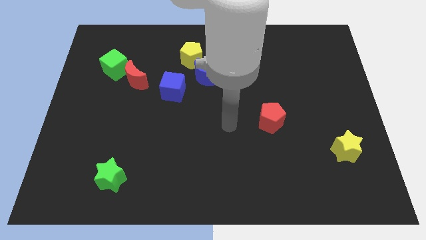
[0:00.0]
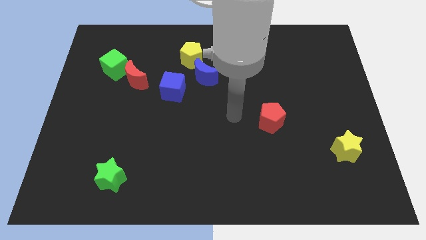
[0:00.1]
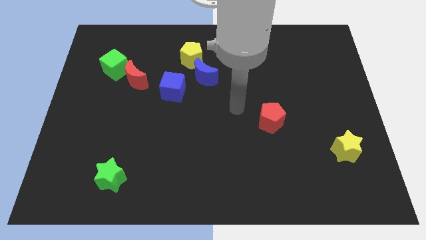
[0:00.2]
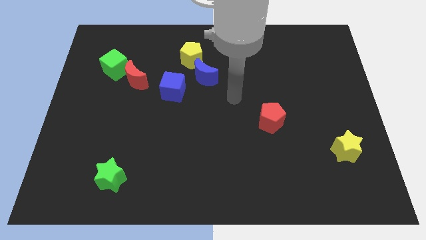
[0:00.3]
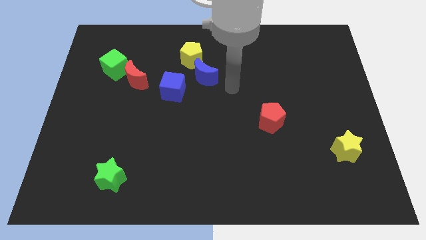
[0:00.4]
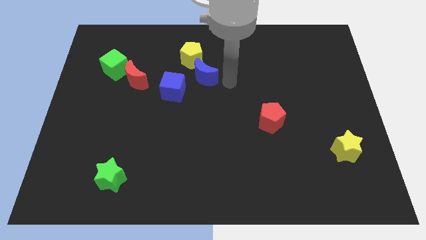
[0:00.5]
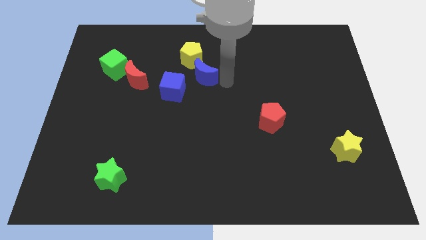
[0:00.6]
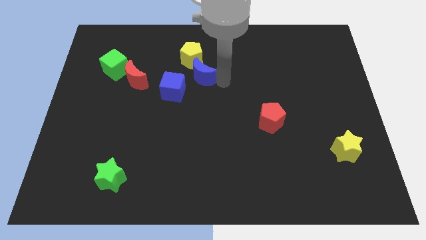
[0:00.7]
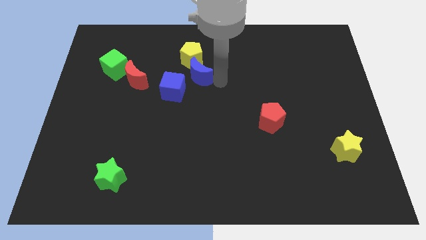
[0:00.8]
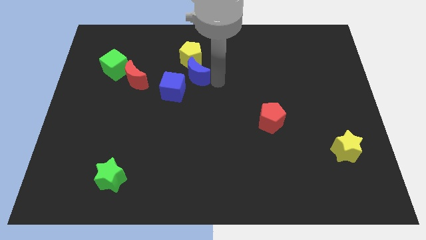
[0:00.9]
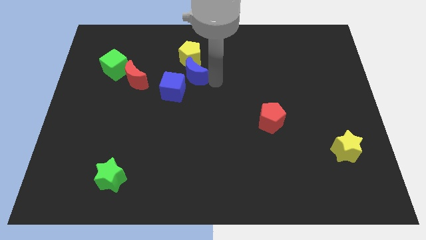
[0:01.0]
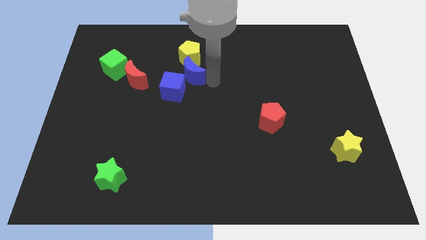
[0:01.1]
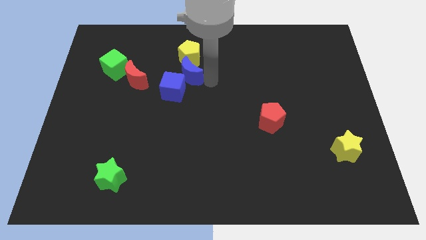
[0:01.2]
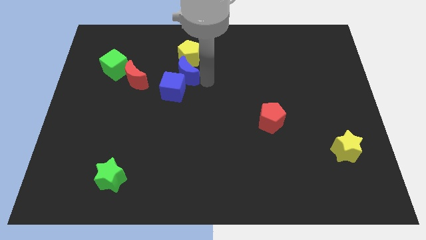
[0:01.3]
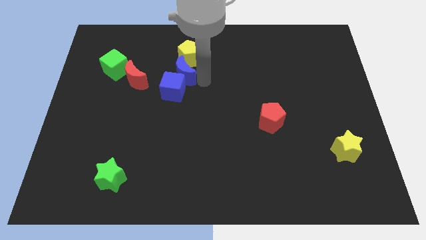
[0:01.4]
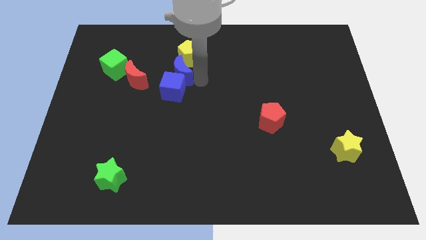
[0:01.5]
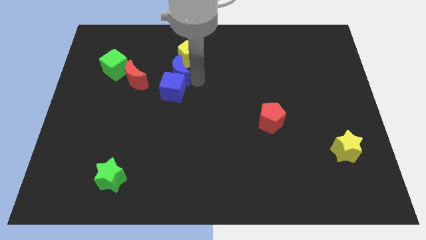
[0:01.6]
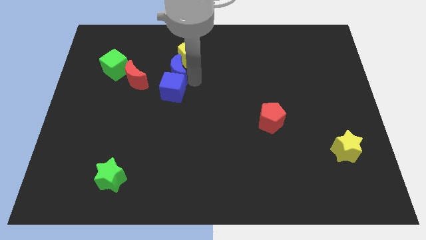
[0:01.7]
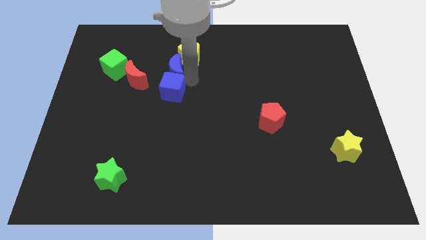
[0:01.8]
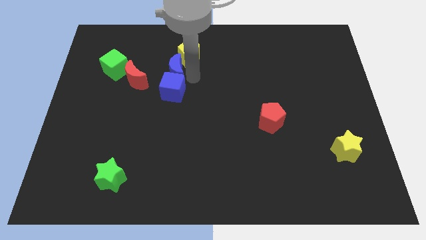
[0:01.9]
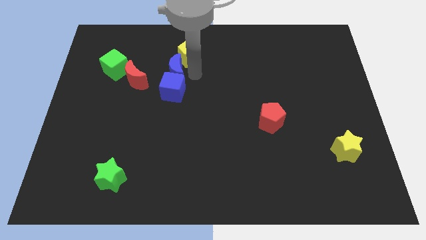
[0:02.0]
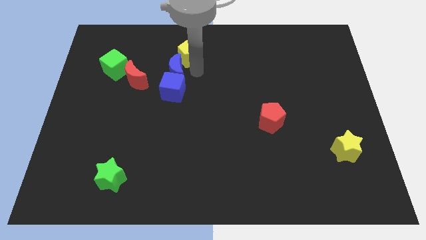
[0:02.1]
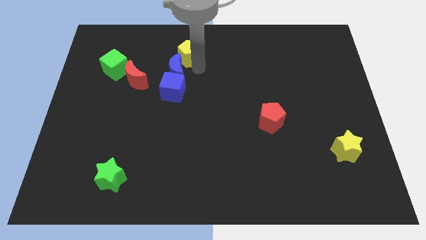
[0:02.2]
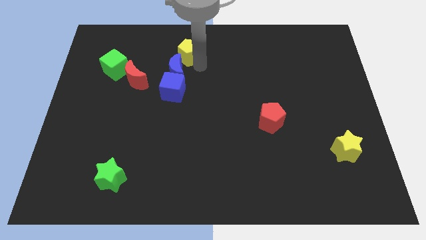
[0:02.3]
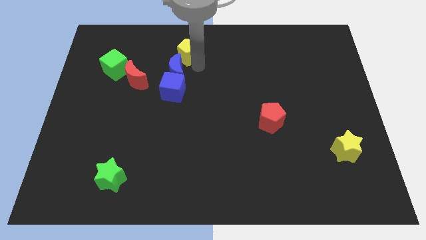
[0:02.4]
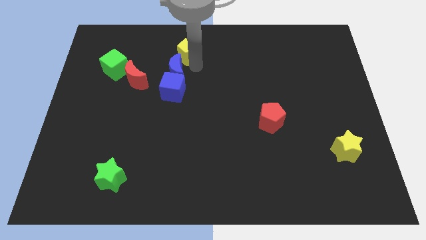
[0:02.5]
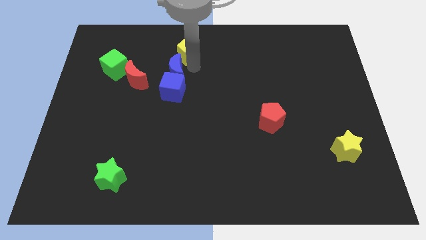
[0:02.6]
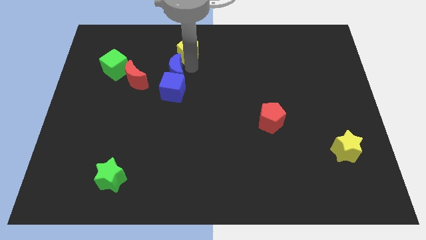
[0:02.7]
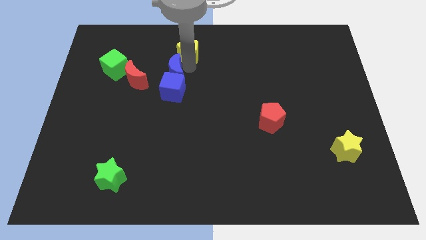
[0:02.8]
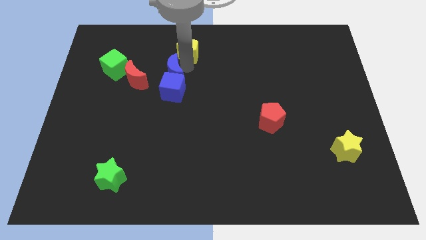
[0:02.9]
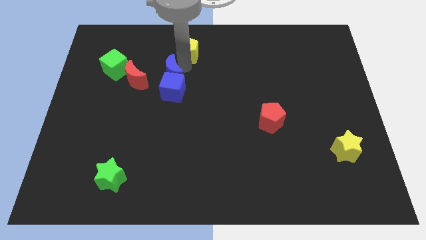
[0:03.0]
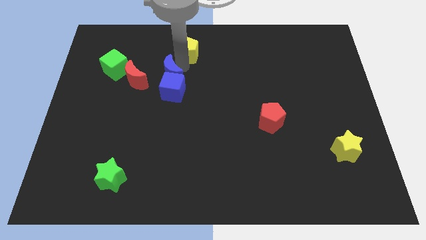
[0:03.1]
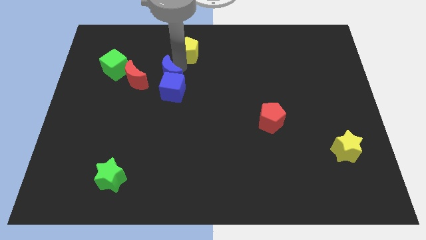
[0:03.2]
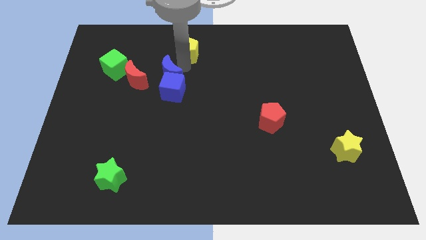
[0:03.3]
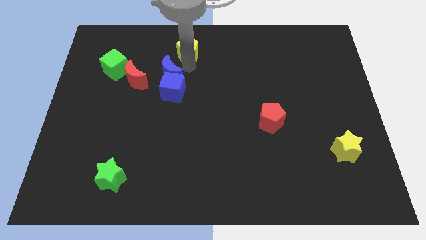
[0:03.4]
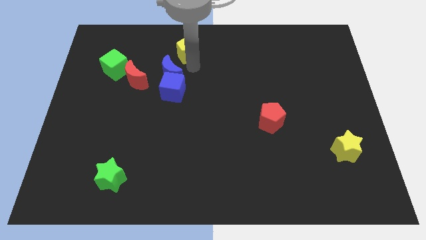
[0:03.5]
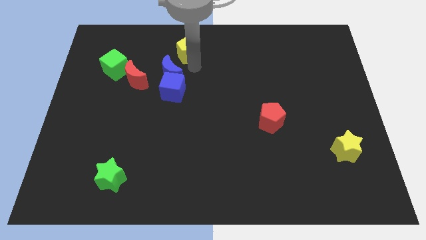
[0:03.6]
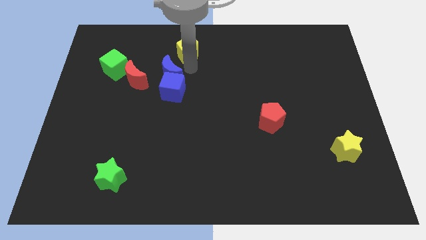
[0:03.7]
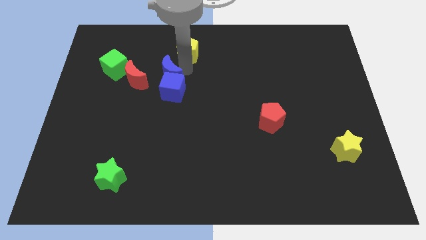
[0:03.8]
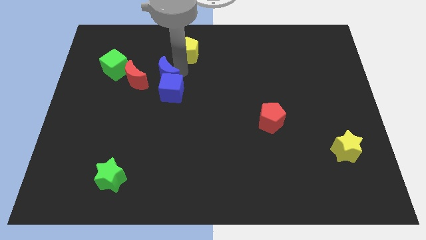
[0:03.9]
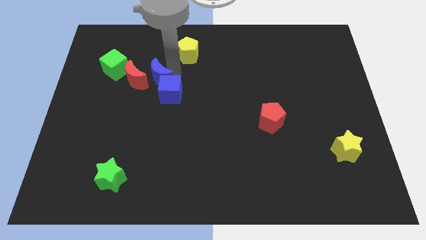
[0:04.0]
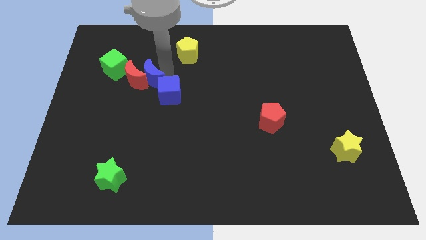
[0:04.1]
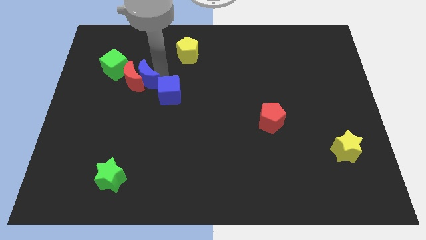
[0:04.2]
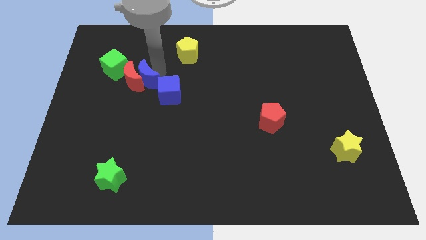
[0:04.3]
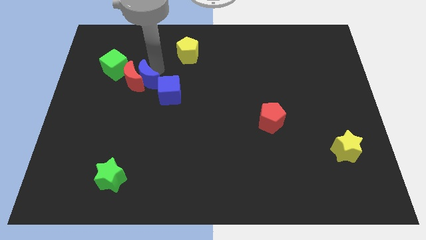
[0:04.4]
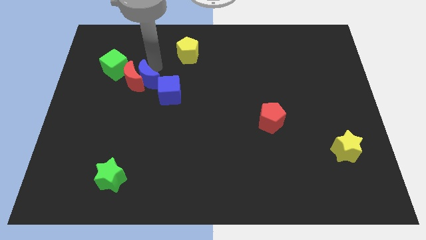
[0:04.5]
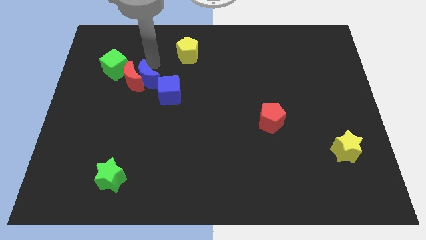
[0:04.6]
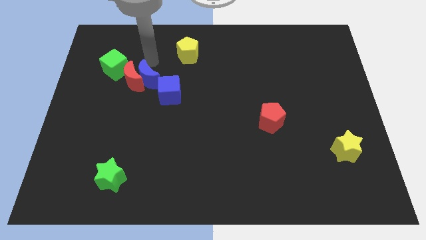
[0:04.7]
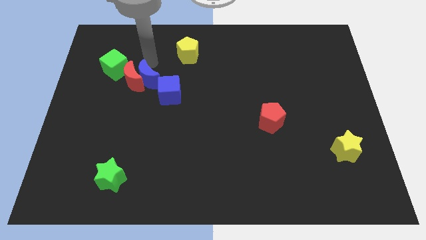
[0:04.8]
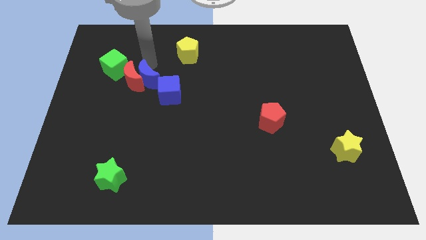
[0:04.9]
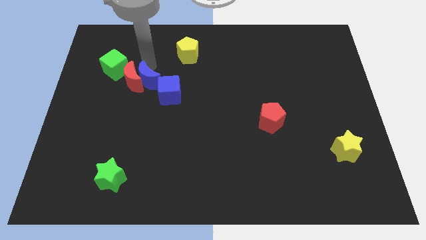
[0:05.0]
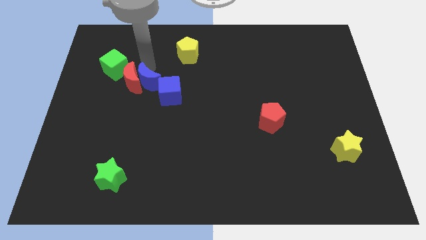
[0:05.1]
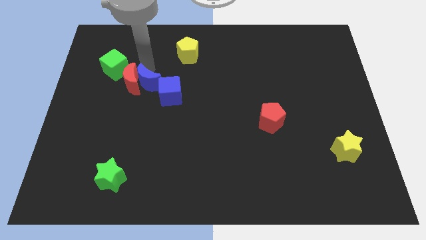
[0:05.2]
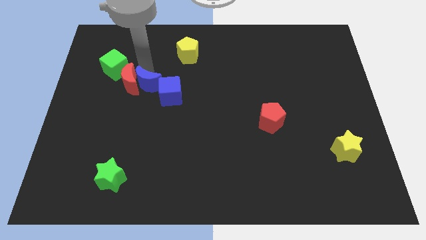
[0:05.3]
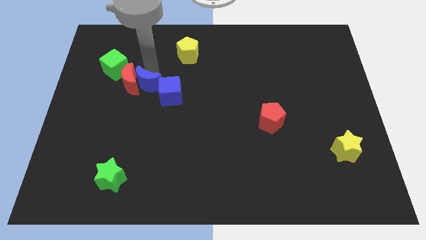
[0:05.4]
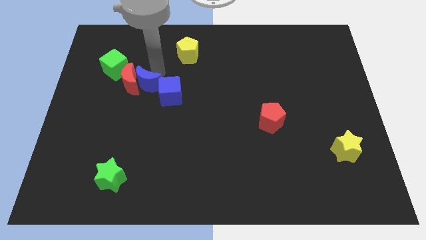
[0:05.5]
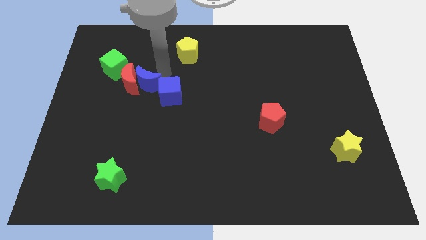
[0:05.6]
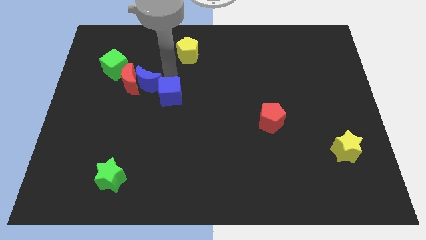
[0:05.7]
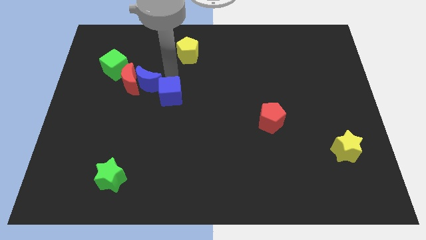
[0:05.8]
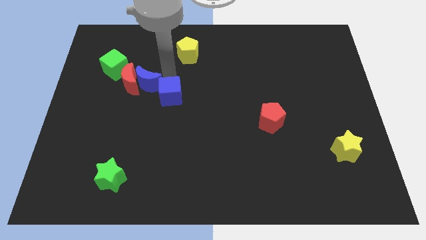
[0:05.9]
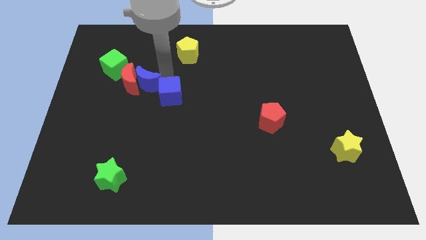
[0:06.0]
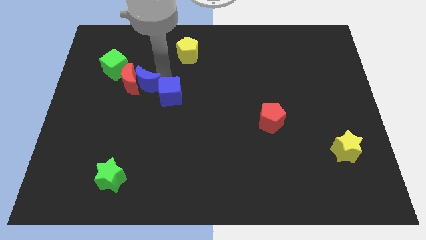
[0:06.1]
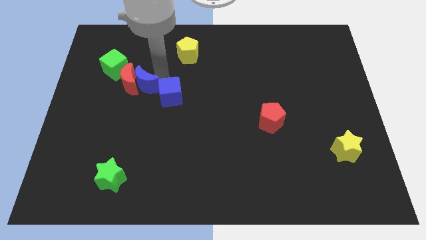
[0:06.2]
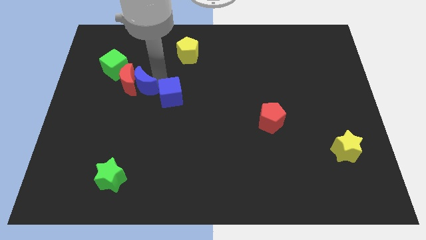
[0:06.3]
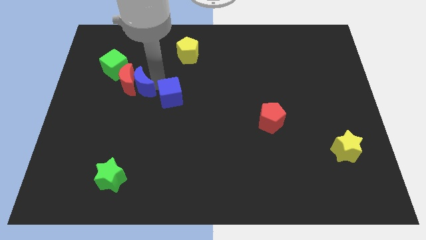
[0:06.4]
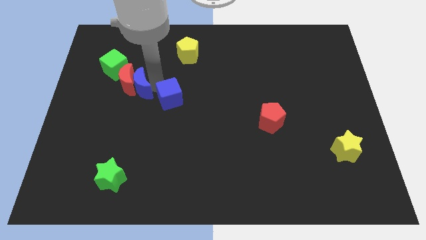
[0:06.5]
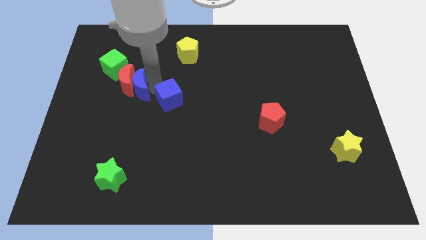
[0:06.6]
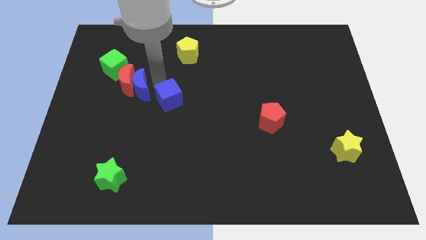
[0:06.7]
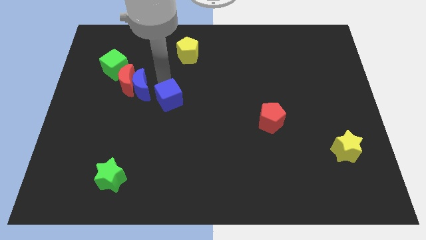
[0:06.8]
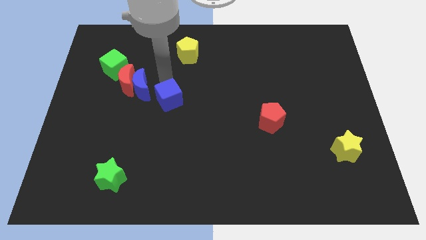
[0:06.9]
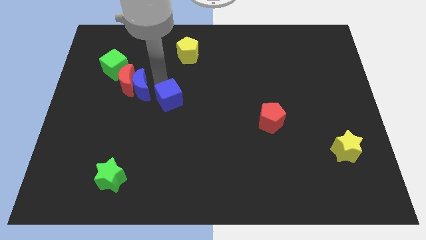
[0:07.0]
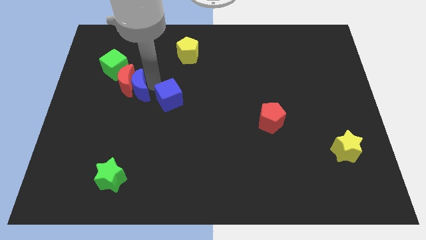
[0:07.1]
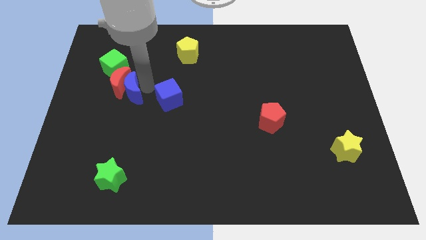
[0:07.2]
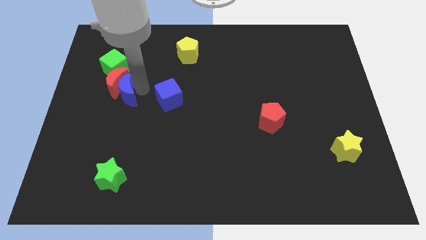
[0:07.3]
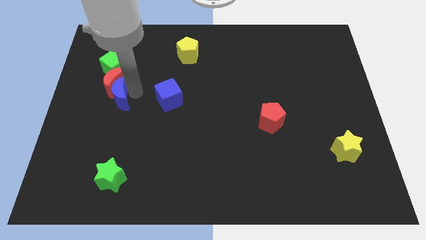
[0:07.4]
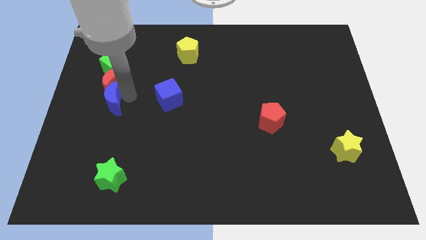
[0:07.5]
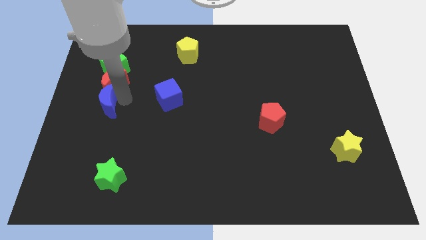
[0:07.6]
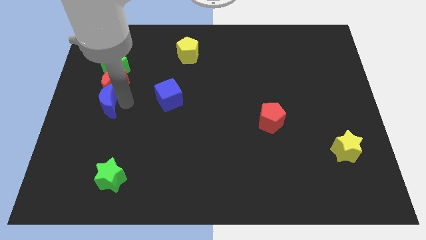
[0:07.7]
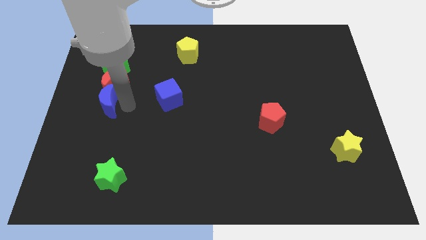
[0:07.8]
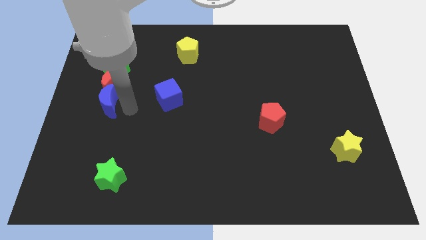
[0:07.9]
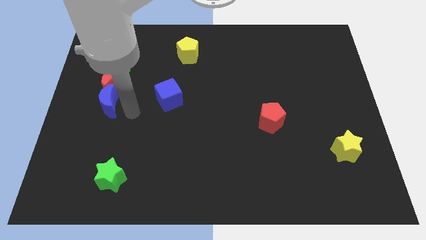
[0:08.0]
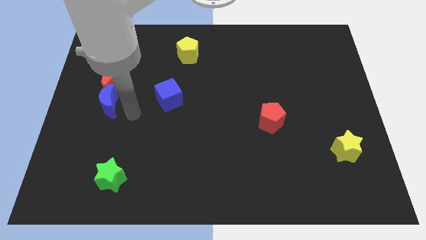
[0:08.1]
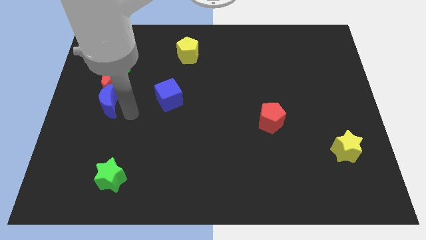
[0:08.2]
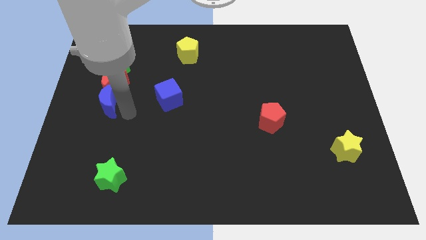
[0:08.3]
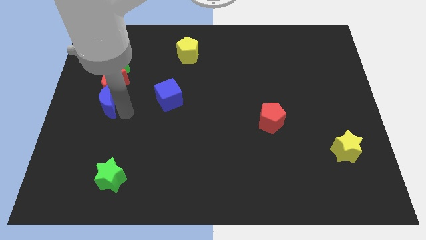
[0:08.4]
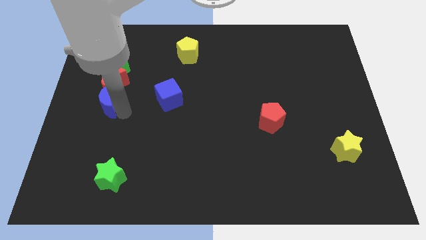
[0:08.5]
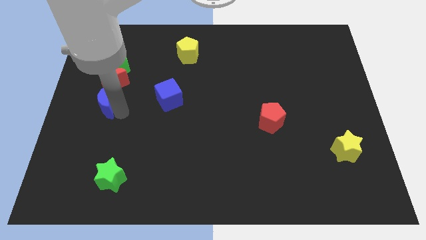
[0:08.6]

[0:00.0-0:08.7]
put the blue moon to the left side of the board

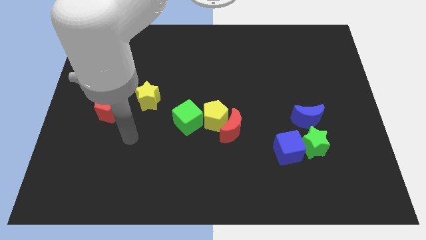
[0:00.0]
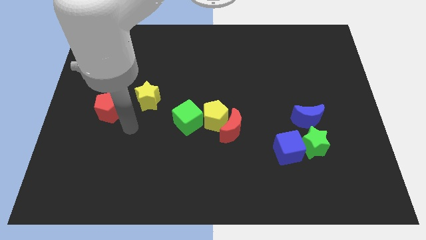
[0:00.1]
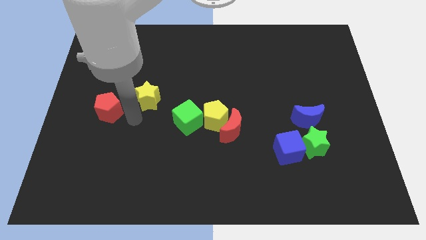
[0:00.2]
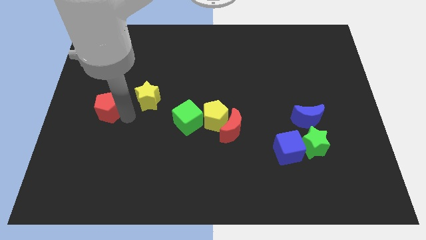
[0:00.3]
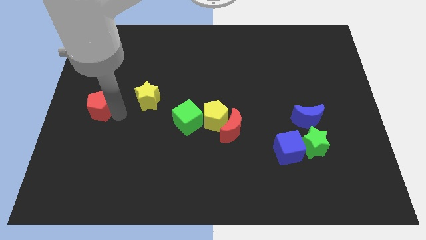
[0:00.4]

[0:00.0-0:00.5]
put the red pentagon to the left side
